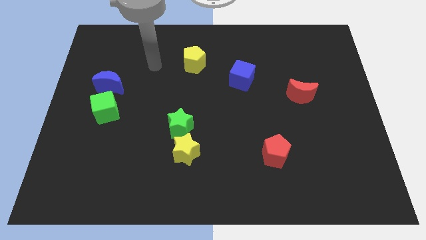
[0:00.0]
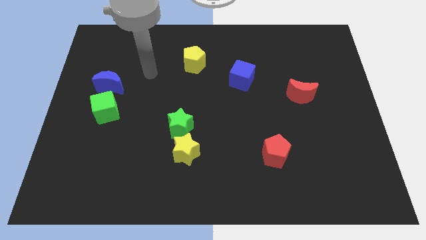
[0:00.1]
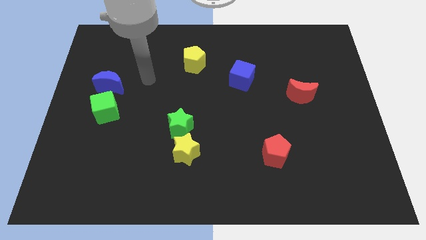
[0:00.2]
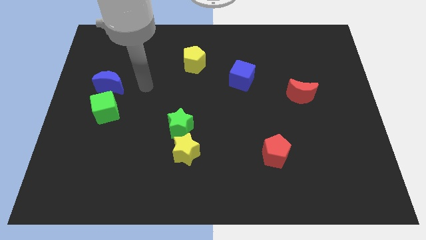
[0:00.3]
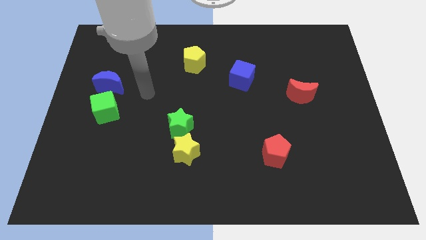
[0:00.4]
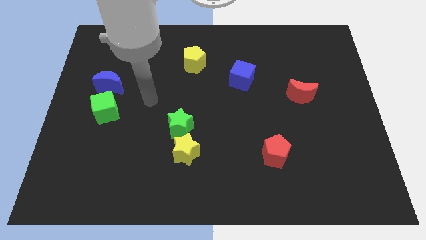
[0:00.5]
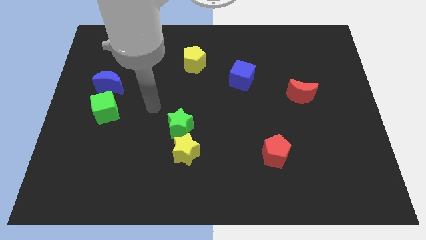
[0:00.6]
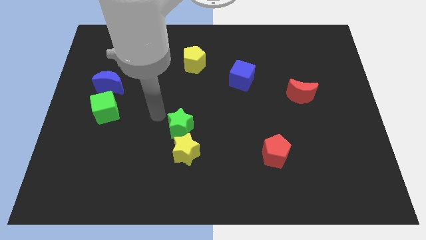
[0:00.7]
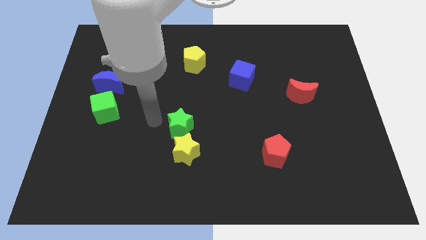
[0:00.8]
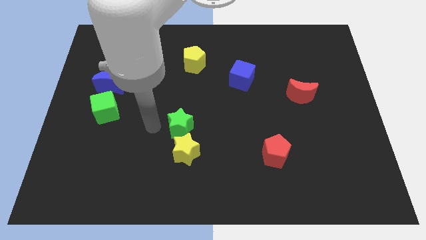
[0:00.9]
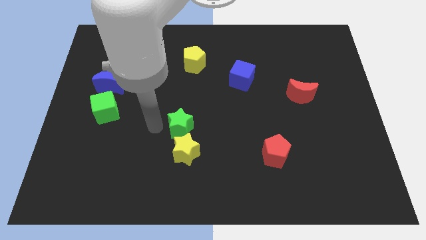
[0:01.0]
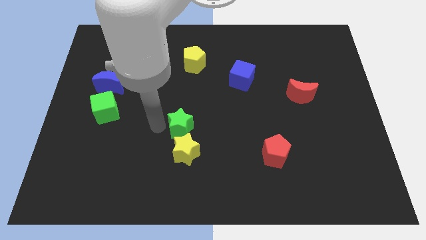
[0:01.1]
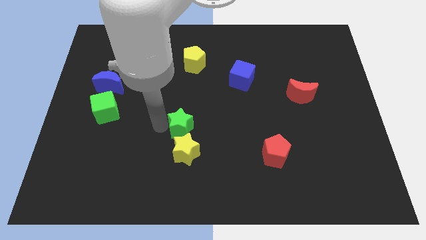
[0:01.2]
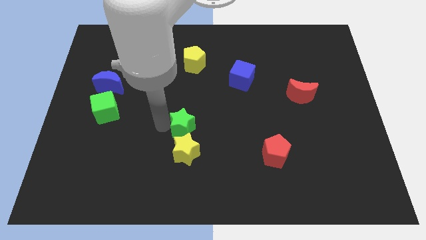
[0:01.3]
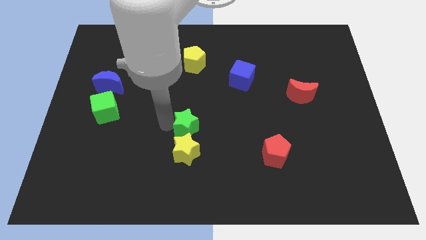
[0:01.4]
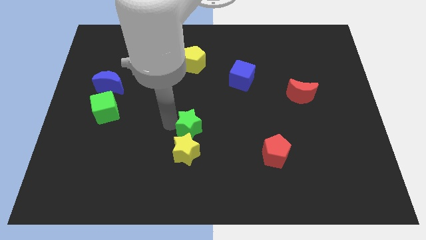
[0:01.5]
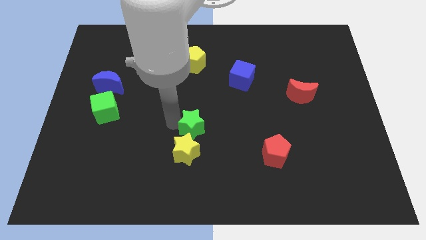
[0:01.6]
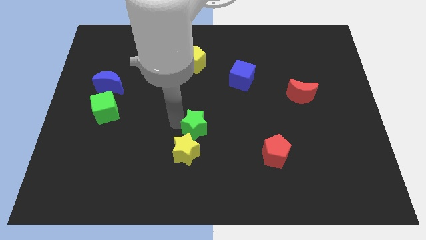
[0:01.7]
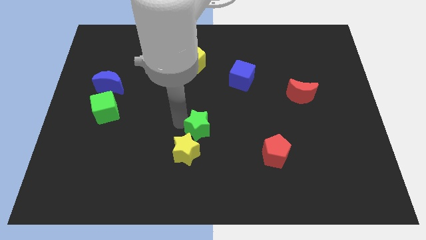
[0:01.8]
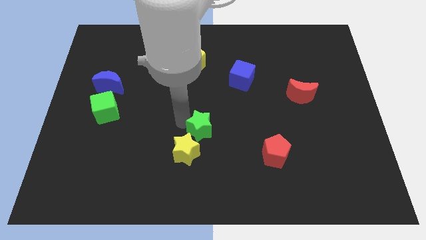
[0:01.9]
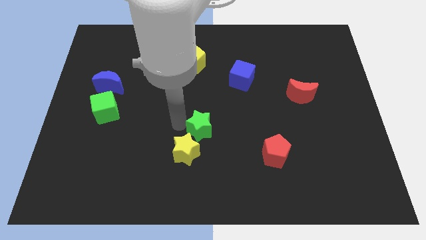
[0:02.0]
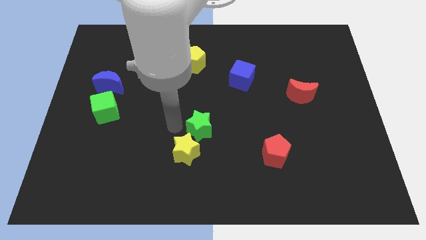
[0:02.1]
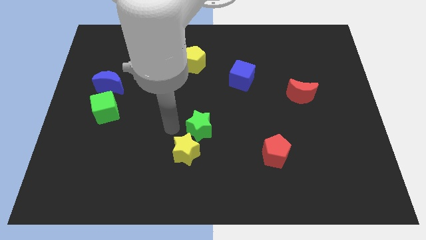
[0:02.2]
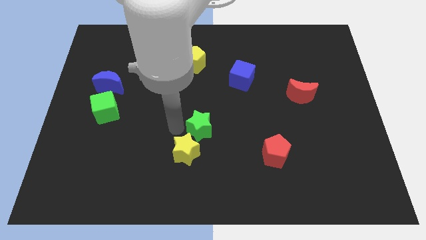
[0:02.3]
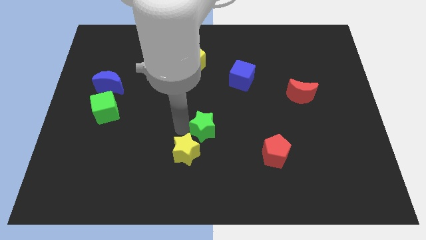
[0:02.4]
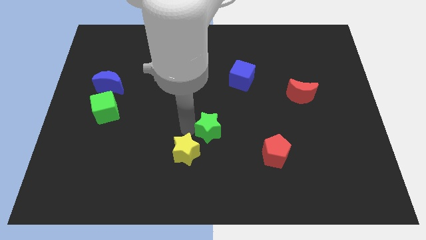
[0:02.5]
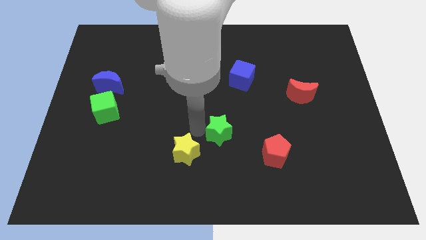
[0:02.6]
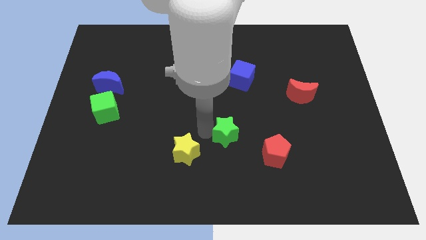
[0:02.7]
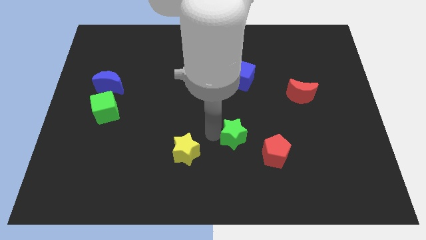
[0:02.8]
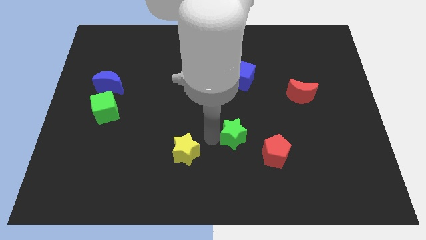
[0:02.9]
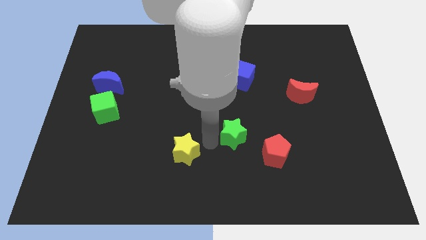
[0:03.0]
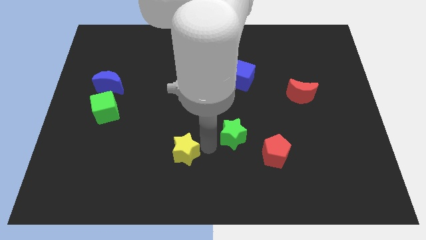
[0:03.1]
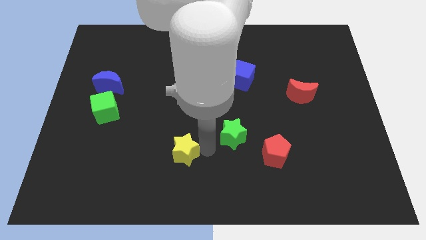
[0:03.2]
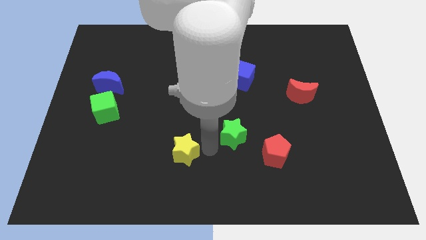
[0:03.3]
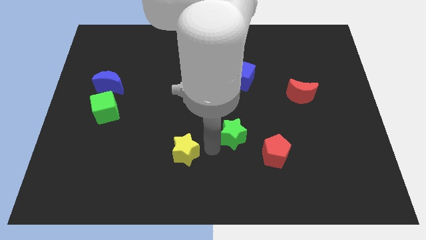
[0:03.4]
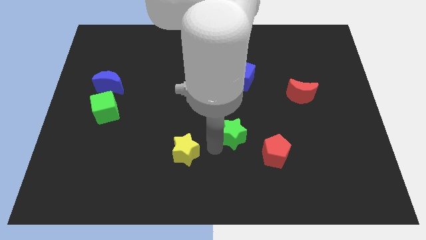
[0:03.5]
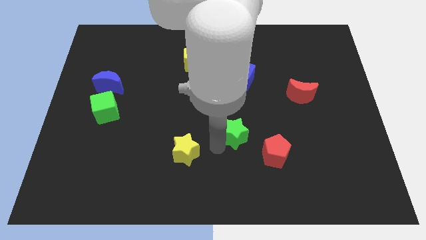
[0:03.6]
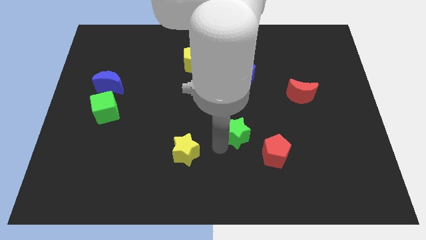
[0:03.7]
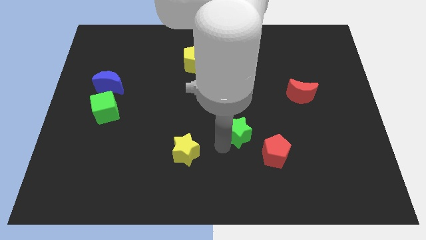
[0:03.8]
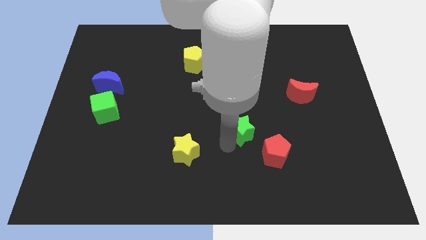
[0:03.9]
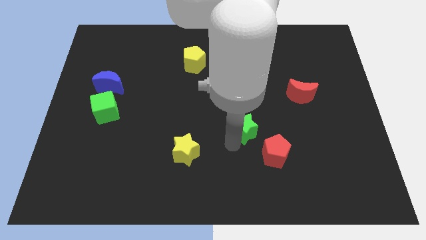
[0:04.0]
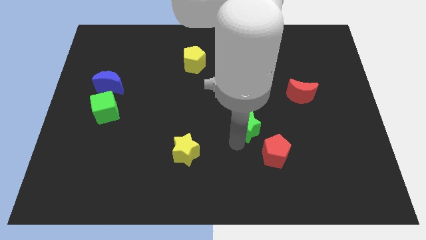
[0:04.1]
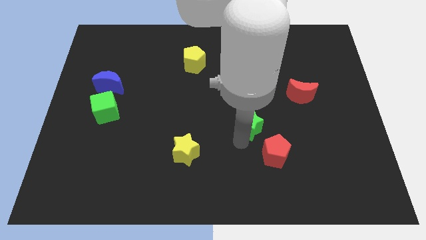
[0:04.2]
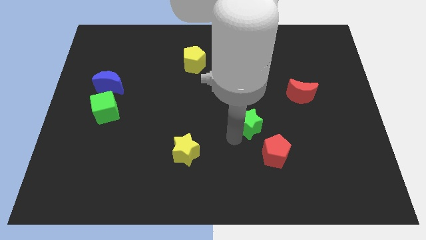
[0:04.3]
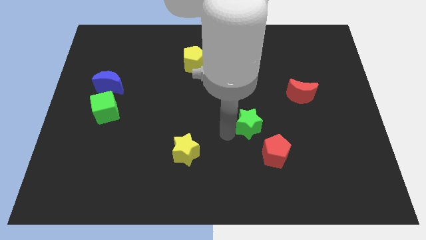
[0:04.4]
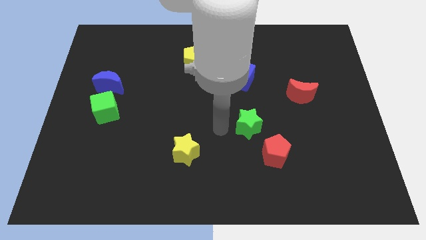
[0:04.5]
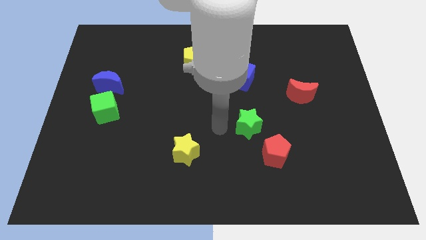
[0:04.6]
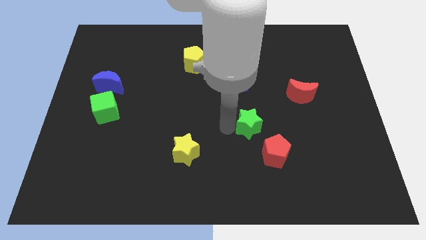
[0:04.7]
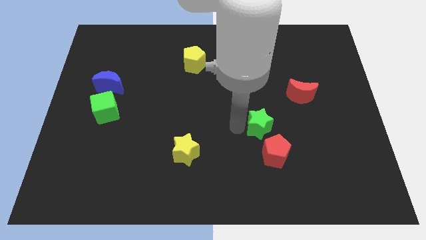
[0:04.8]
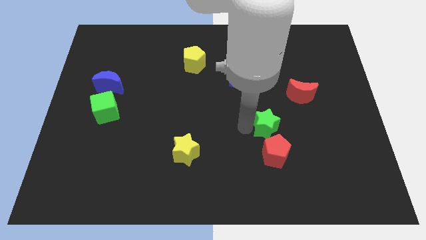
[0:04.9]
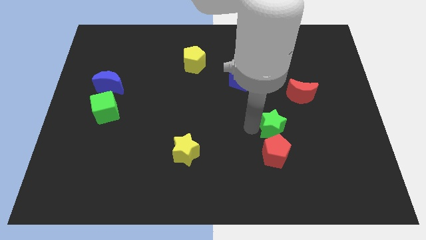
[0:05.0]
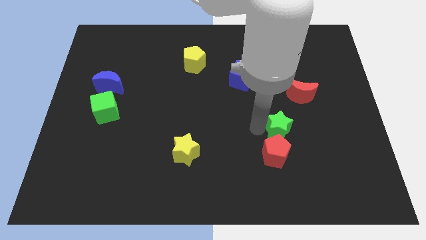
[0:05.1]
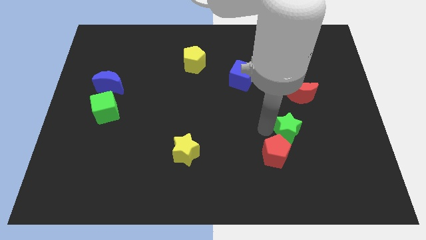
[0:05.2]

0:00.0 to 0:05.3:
move the green star to the bottom side of the red moon

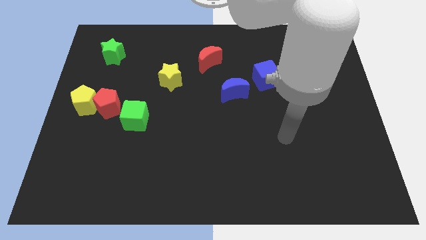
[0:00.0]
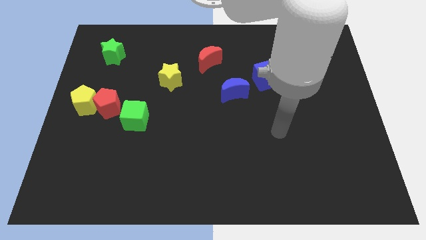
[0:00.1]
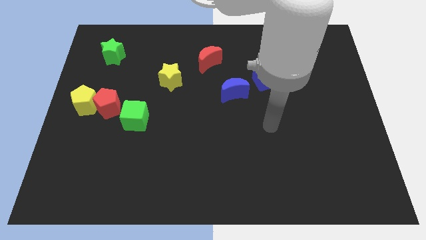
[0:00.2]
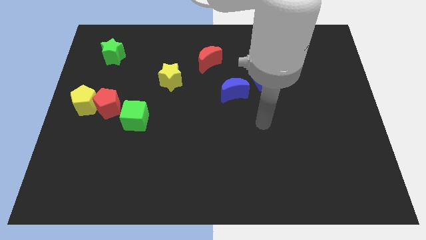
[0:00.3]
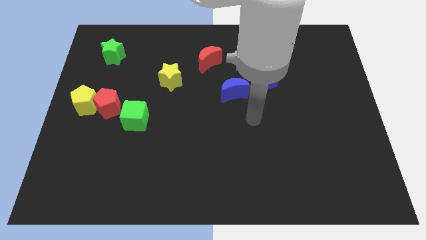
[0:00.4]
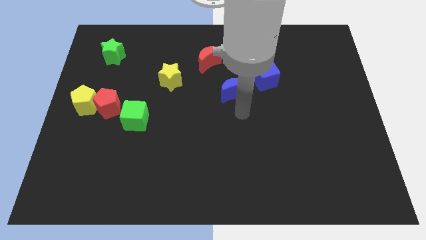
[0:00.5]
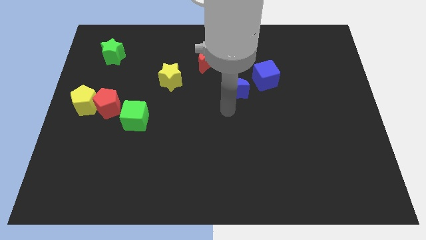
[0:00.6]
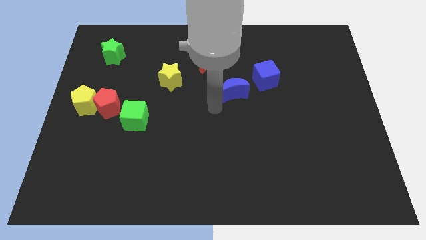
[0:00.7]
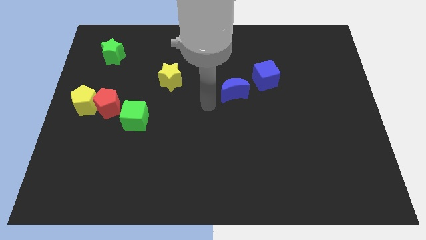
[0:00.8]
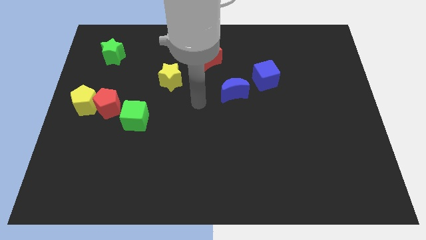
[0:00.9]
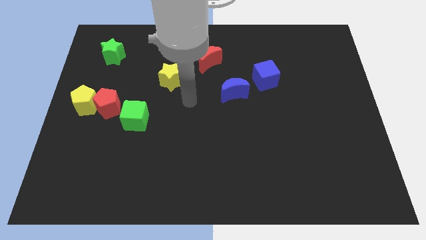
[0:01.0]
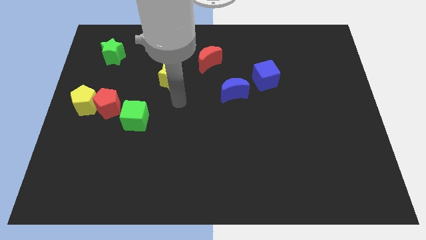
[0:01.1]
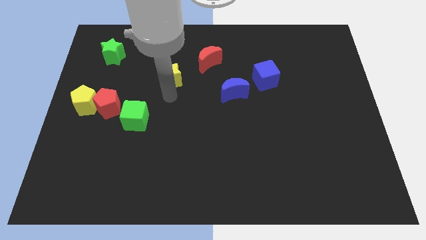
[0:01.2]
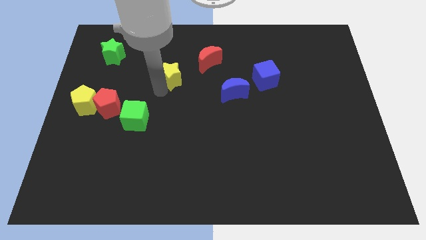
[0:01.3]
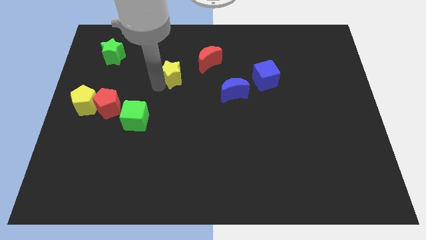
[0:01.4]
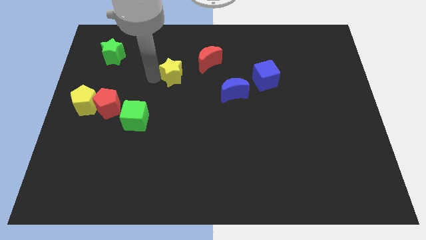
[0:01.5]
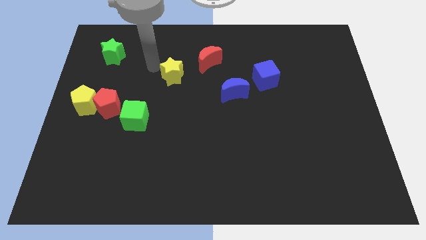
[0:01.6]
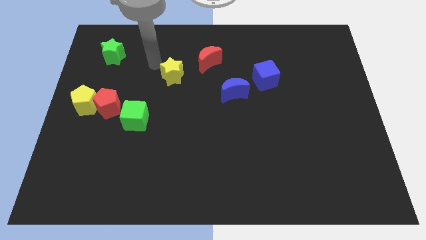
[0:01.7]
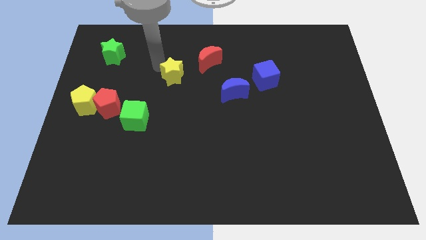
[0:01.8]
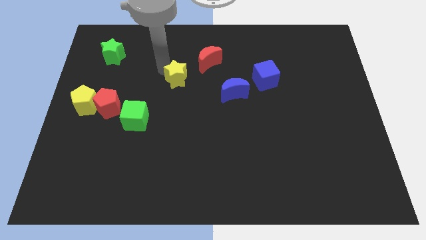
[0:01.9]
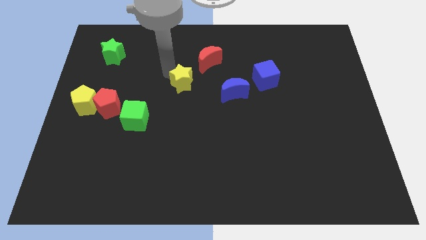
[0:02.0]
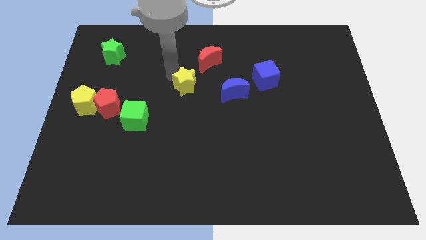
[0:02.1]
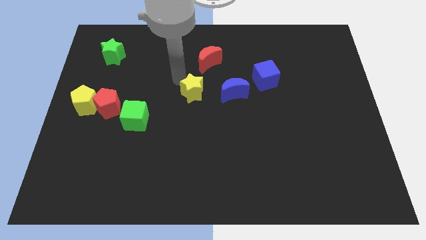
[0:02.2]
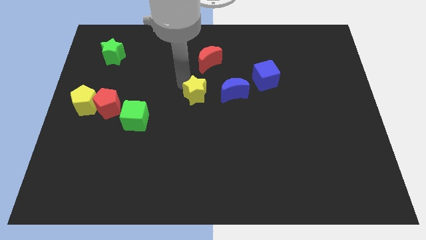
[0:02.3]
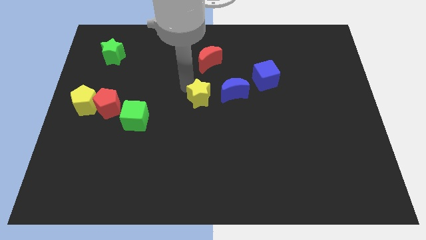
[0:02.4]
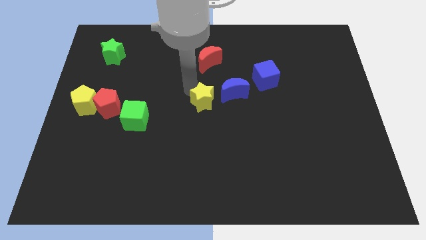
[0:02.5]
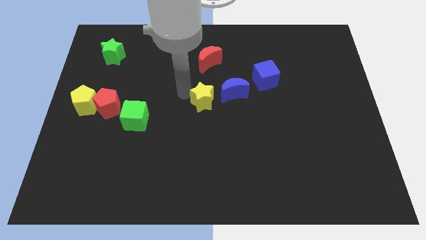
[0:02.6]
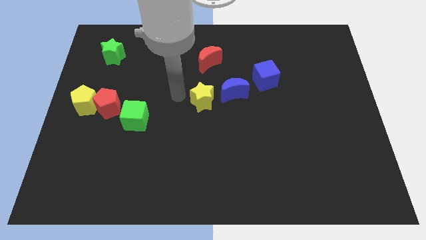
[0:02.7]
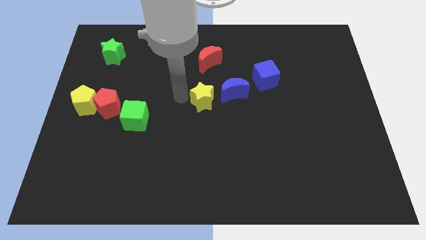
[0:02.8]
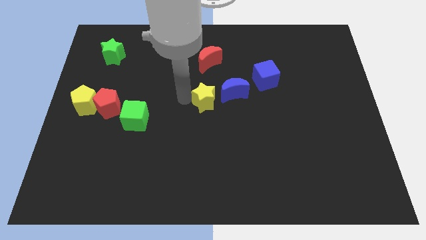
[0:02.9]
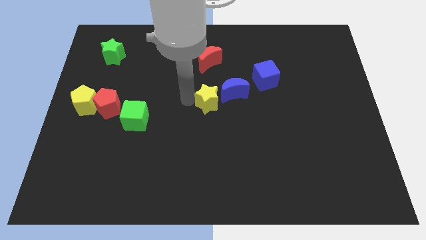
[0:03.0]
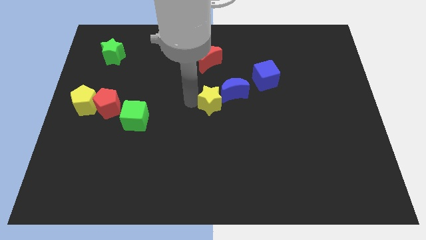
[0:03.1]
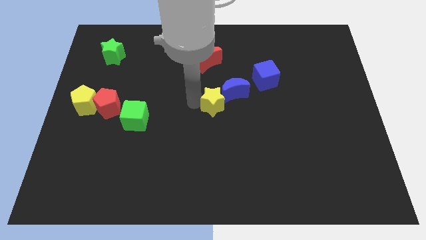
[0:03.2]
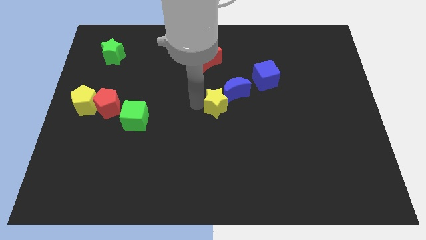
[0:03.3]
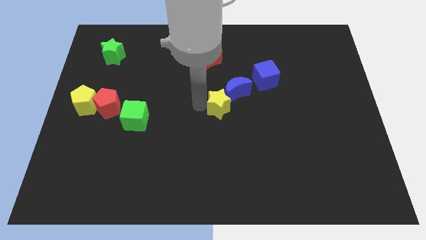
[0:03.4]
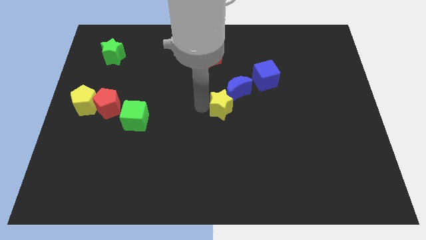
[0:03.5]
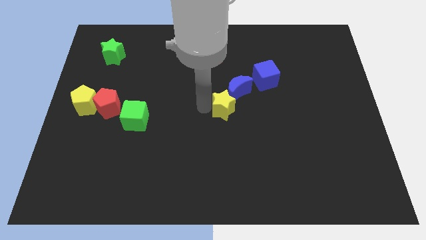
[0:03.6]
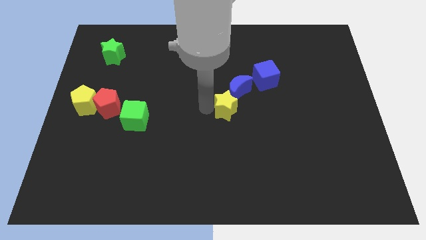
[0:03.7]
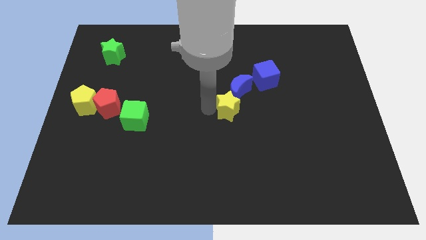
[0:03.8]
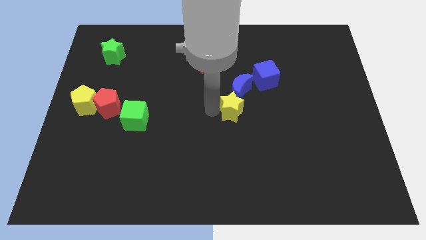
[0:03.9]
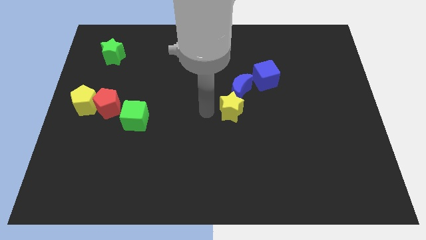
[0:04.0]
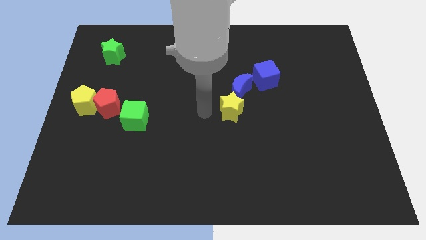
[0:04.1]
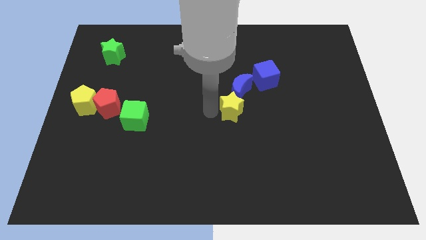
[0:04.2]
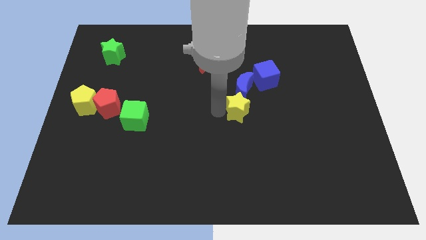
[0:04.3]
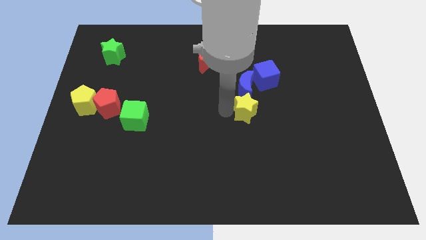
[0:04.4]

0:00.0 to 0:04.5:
push the yellow star diagonally down and to the right of the blue moon
